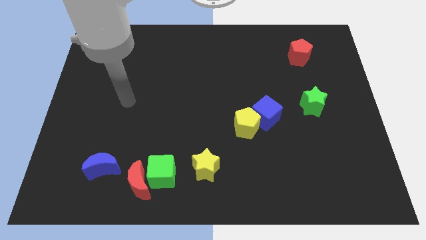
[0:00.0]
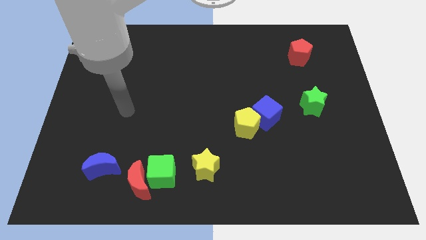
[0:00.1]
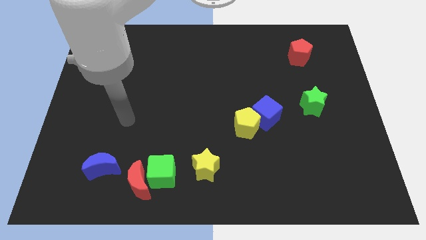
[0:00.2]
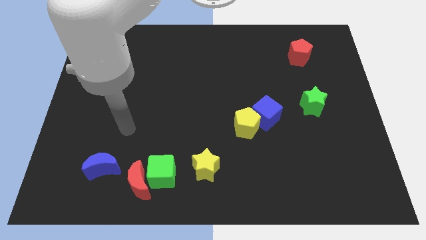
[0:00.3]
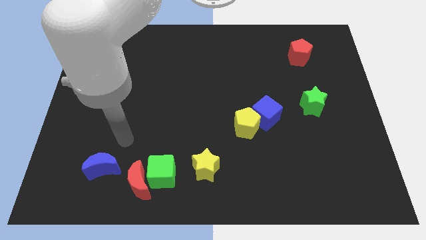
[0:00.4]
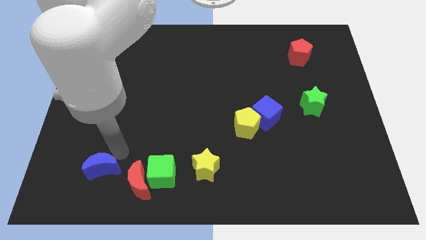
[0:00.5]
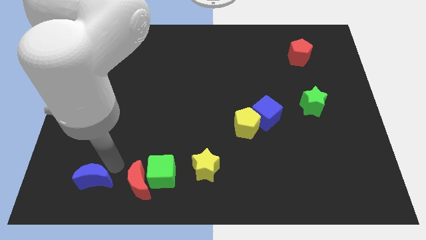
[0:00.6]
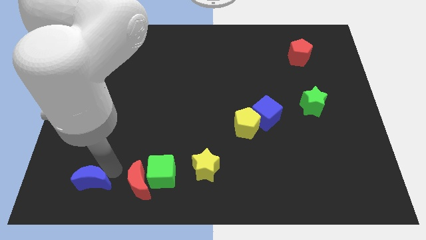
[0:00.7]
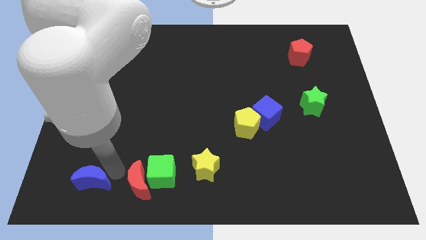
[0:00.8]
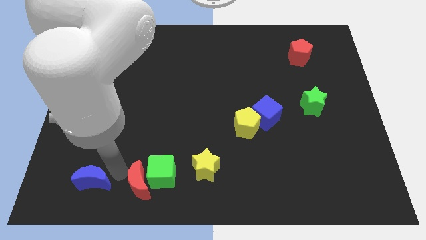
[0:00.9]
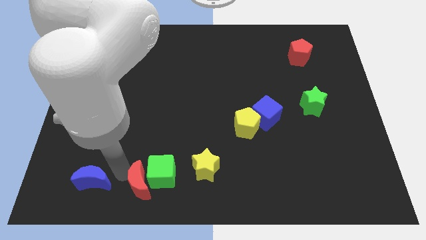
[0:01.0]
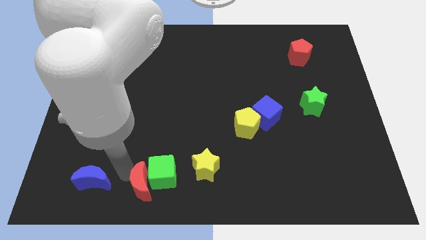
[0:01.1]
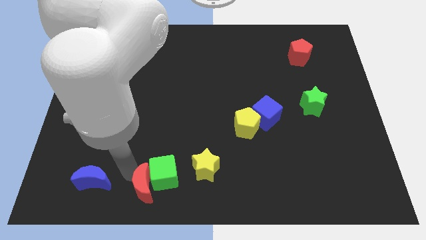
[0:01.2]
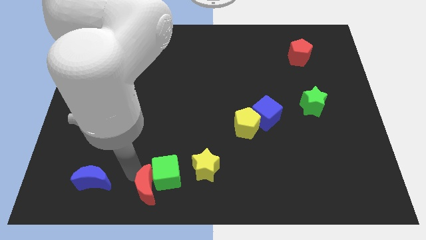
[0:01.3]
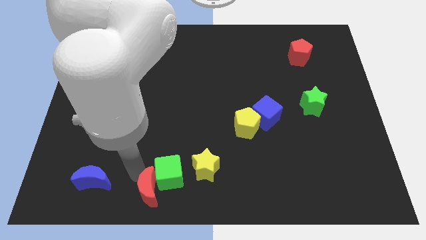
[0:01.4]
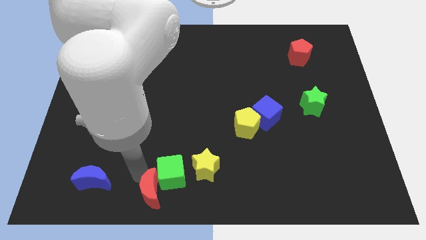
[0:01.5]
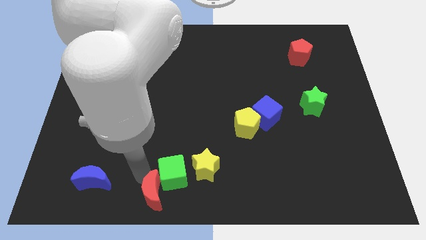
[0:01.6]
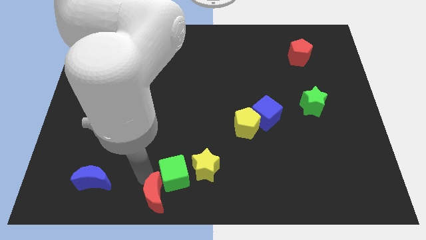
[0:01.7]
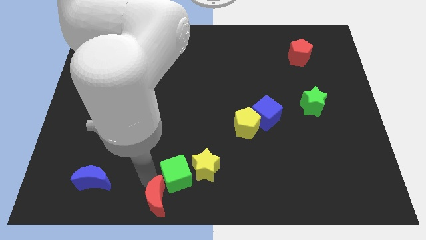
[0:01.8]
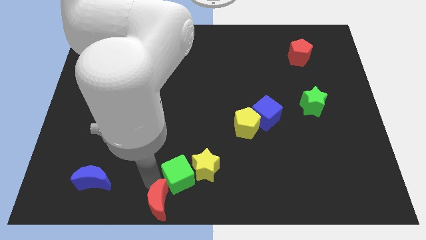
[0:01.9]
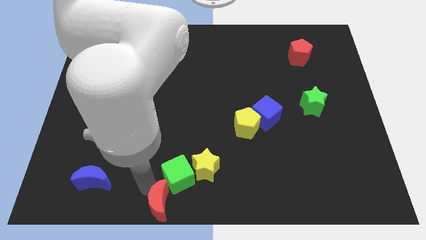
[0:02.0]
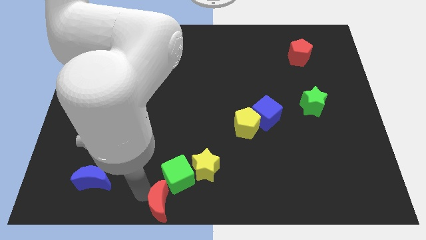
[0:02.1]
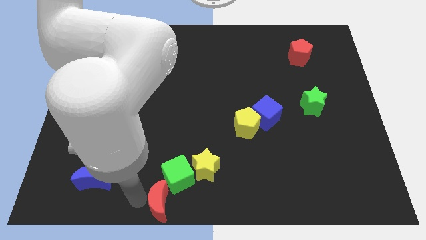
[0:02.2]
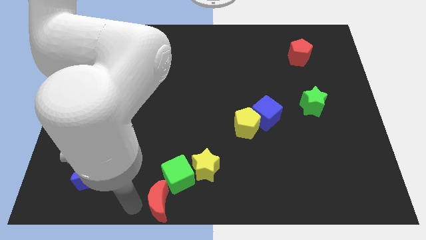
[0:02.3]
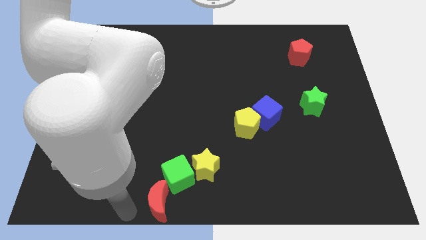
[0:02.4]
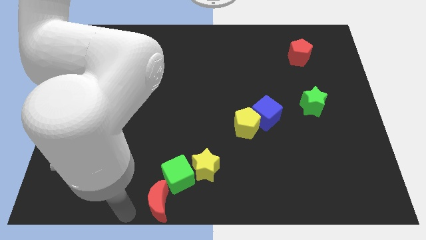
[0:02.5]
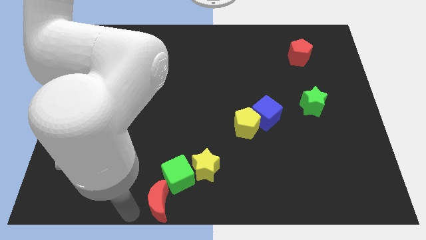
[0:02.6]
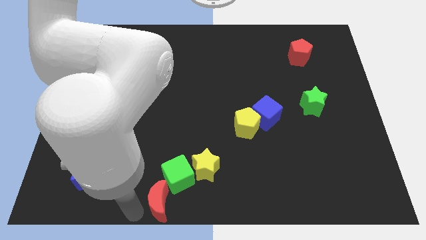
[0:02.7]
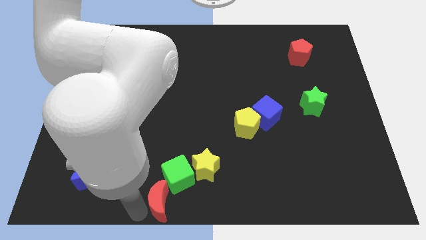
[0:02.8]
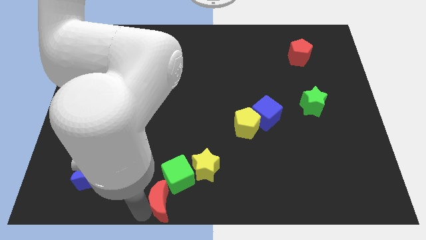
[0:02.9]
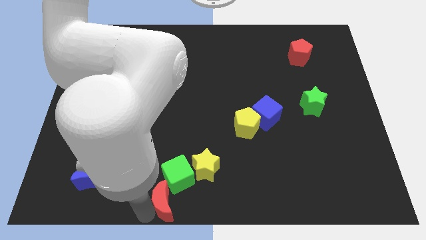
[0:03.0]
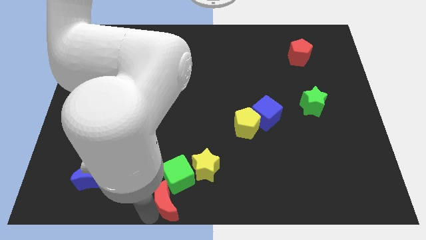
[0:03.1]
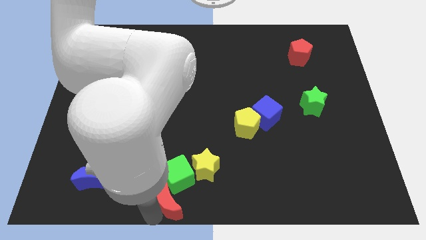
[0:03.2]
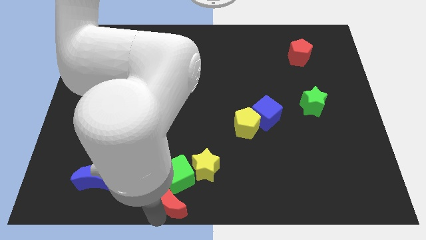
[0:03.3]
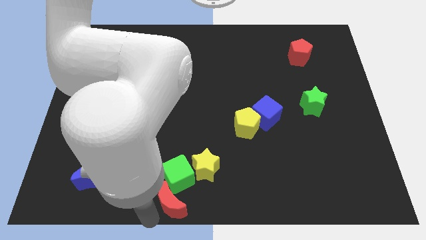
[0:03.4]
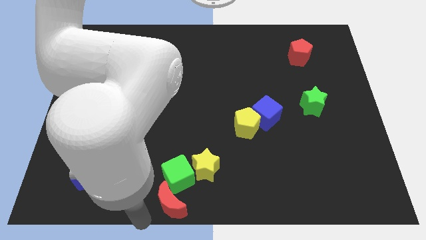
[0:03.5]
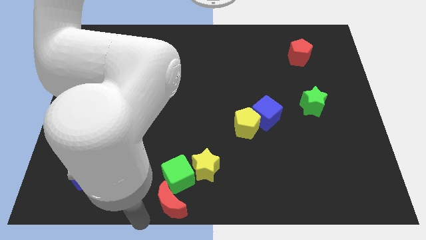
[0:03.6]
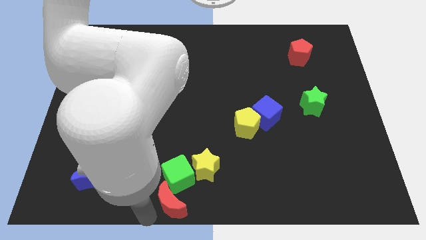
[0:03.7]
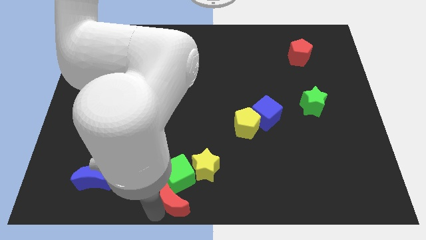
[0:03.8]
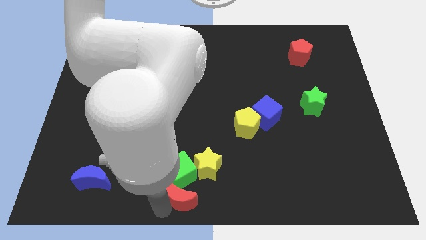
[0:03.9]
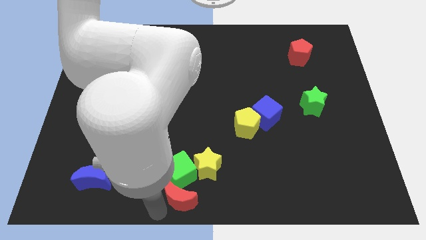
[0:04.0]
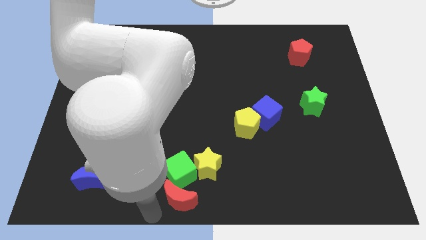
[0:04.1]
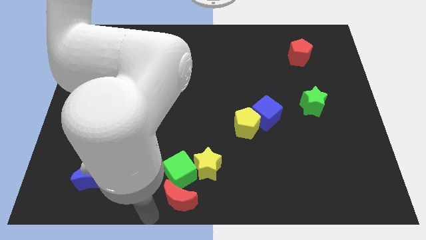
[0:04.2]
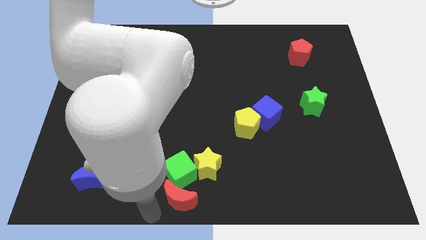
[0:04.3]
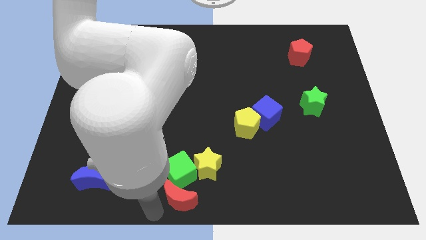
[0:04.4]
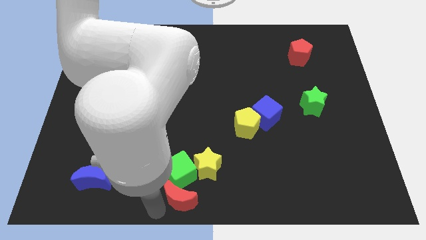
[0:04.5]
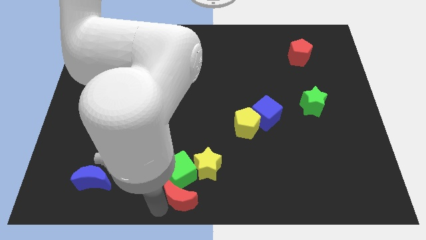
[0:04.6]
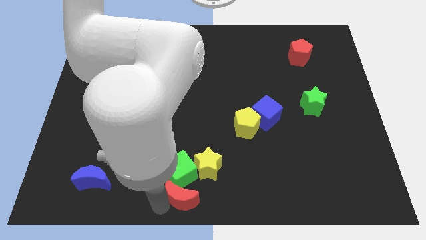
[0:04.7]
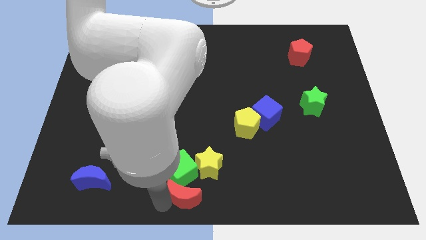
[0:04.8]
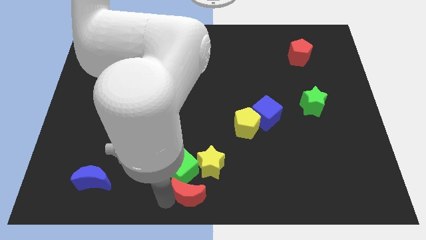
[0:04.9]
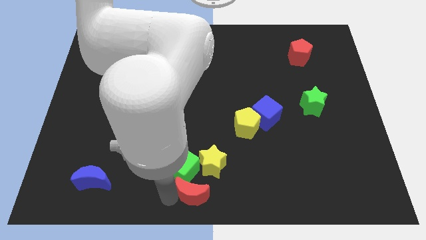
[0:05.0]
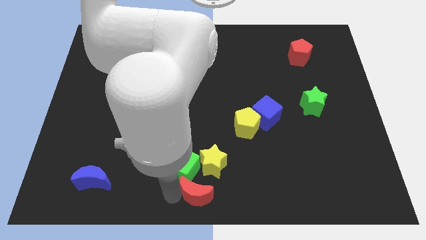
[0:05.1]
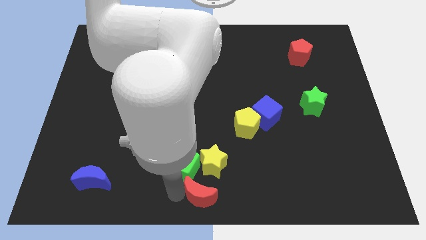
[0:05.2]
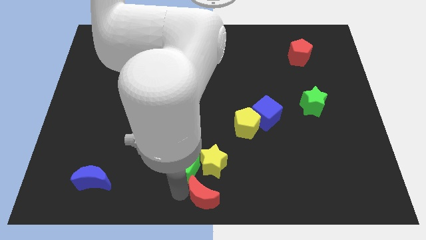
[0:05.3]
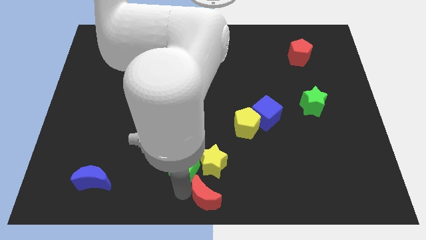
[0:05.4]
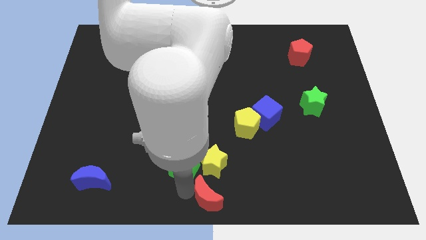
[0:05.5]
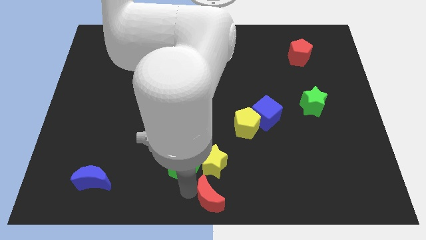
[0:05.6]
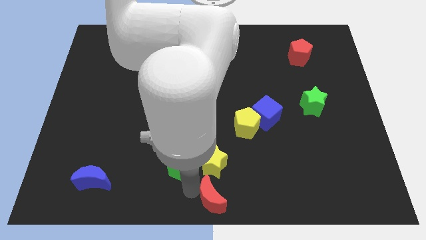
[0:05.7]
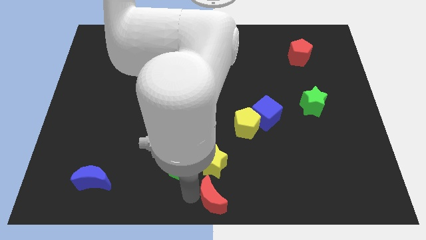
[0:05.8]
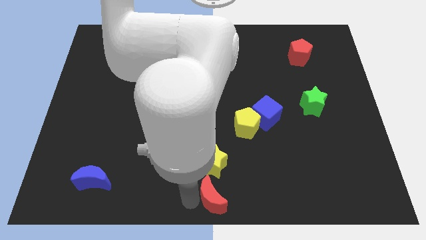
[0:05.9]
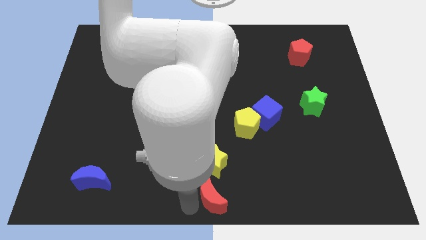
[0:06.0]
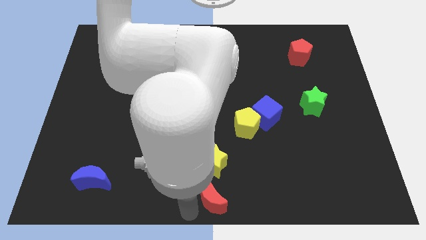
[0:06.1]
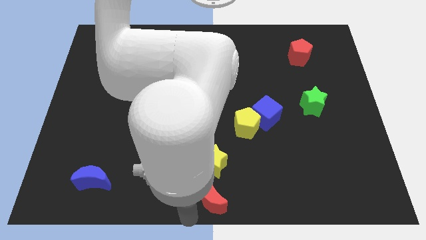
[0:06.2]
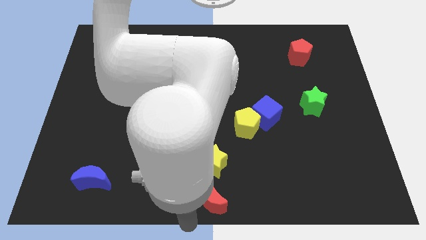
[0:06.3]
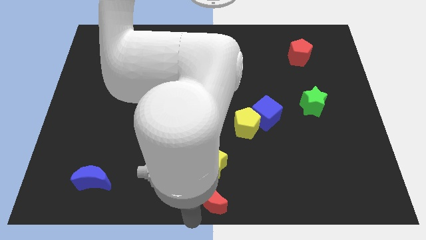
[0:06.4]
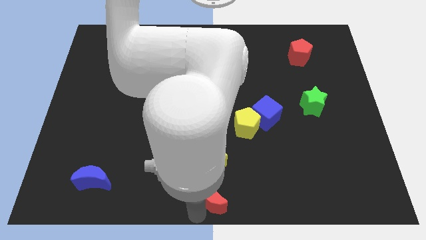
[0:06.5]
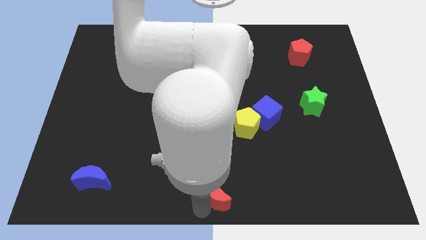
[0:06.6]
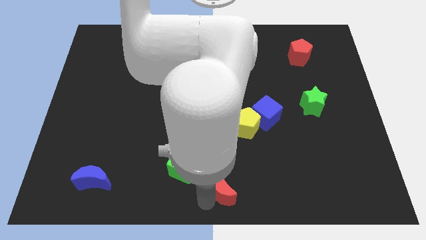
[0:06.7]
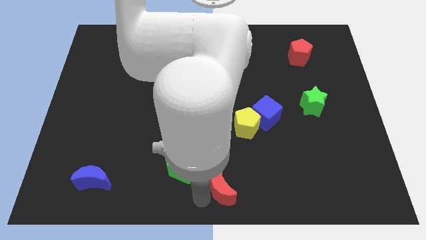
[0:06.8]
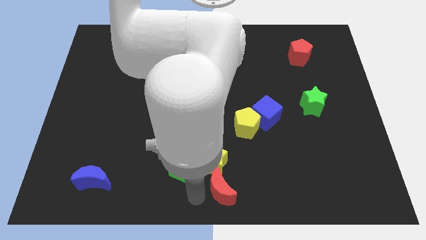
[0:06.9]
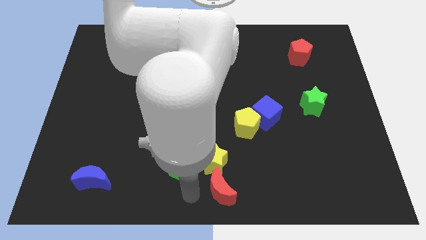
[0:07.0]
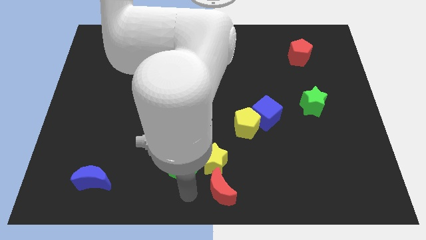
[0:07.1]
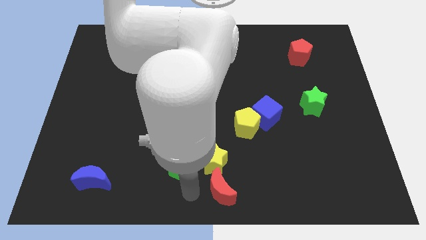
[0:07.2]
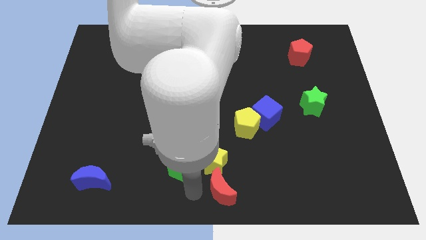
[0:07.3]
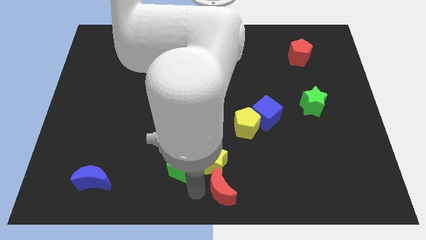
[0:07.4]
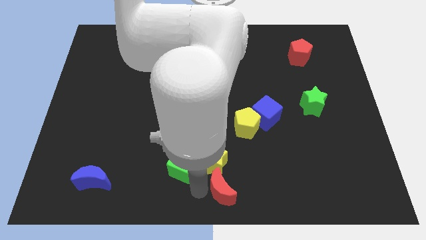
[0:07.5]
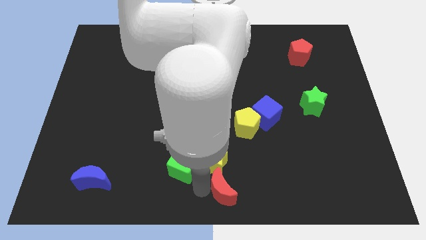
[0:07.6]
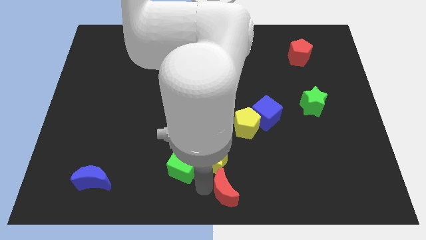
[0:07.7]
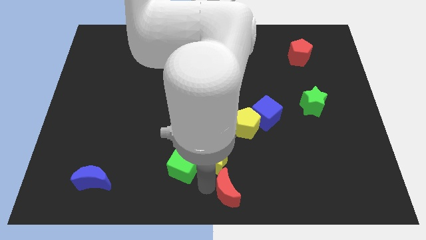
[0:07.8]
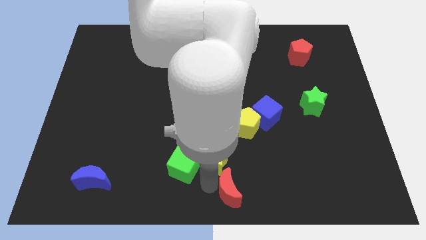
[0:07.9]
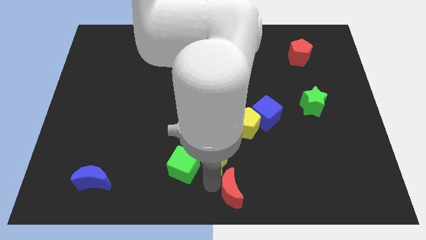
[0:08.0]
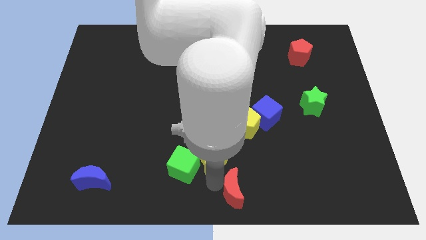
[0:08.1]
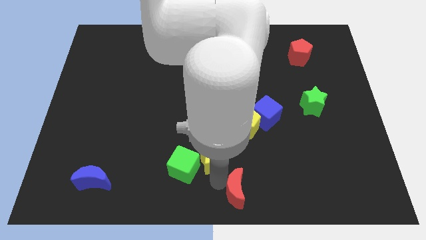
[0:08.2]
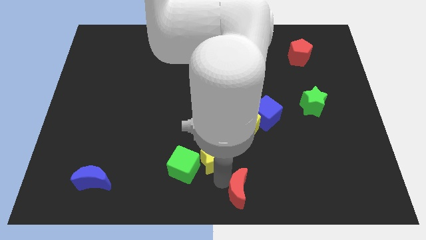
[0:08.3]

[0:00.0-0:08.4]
push the red moon to the right
